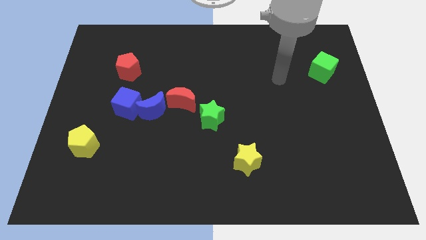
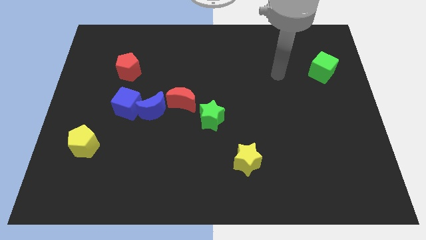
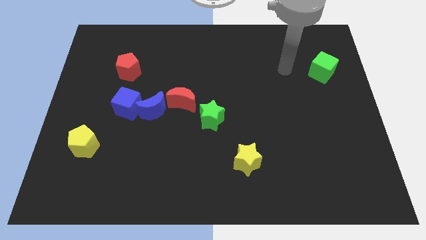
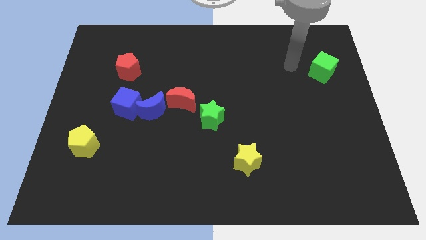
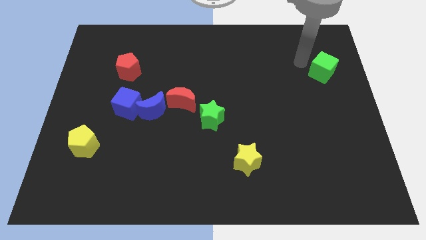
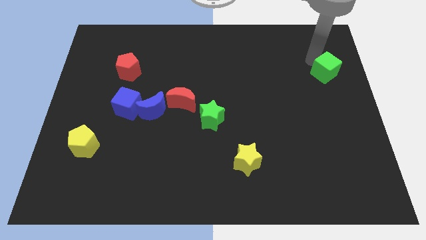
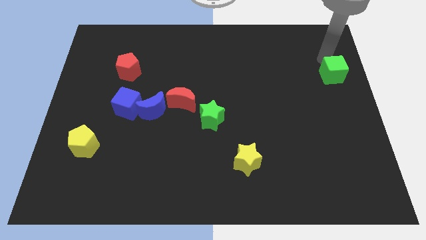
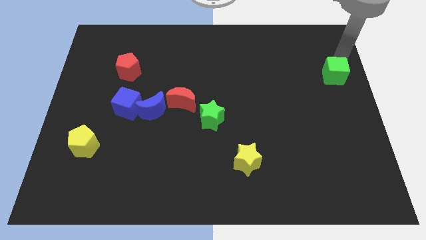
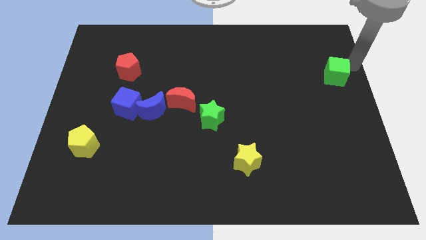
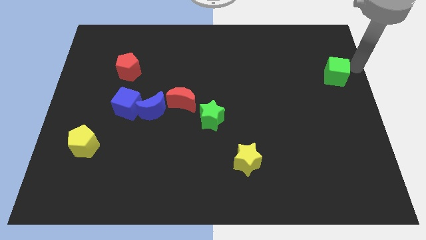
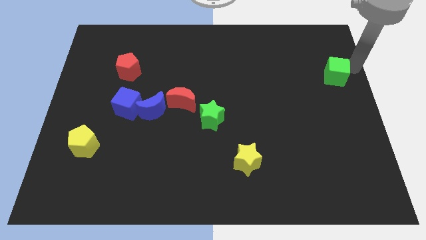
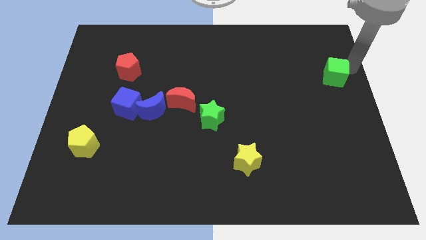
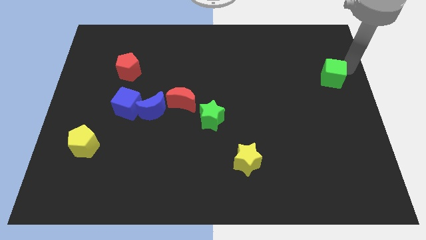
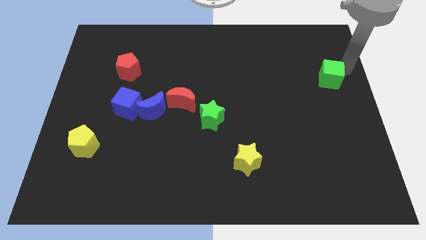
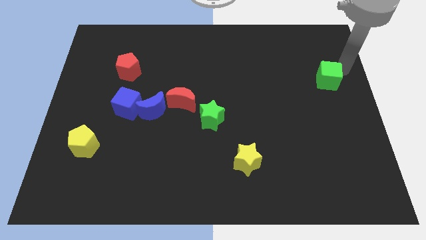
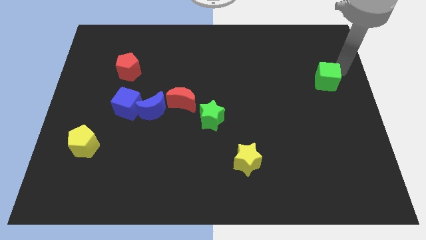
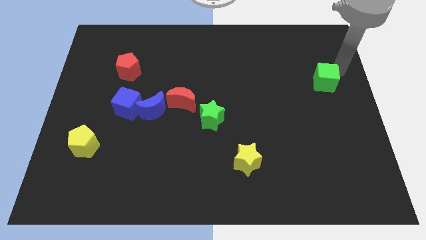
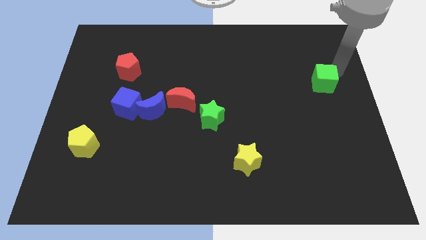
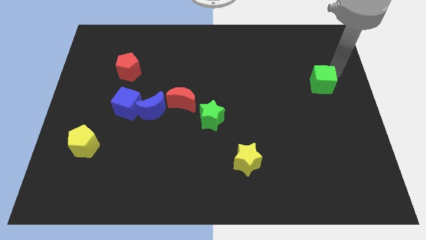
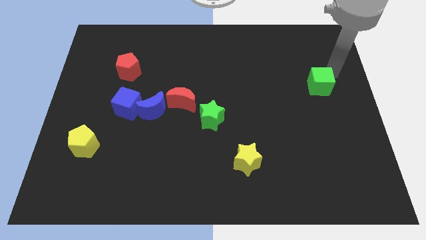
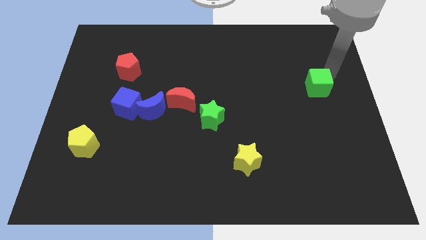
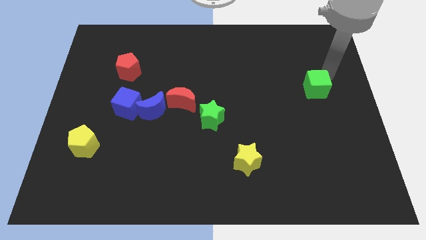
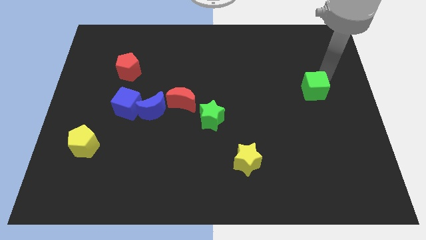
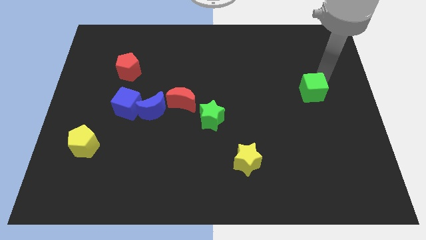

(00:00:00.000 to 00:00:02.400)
slightly slide the green cube downwards and then to the left

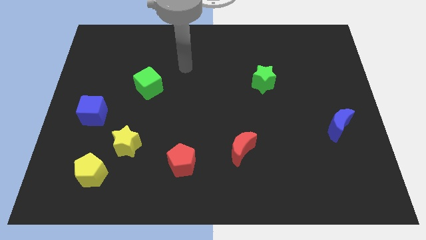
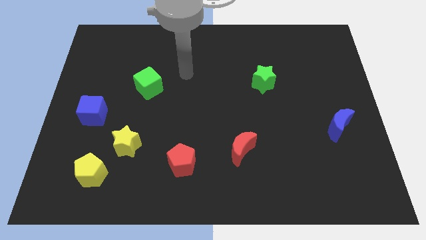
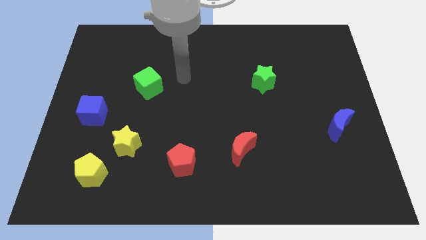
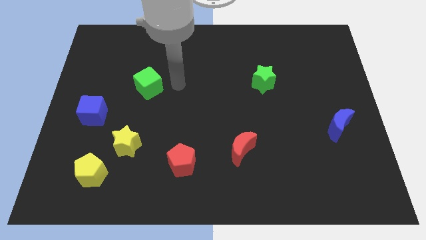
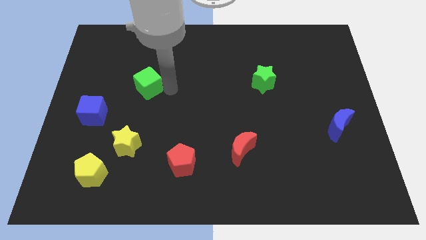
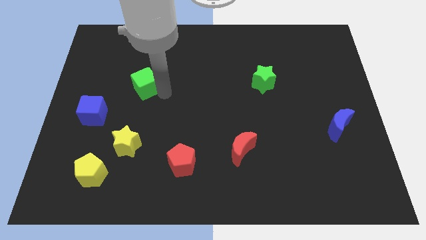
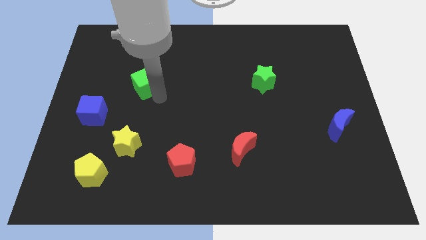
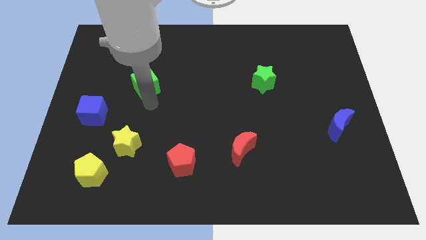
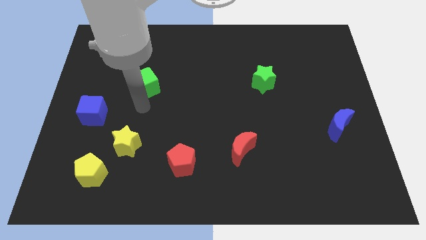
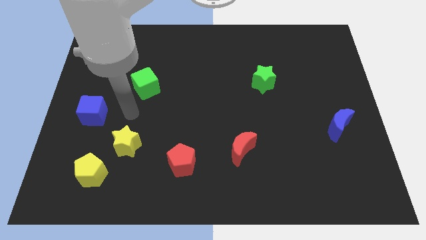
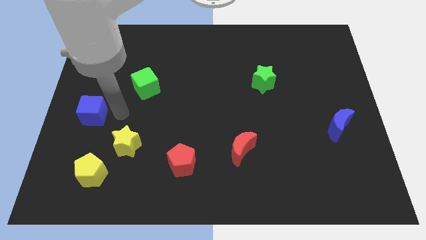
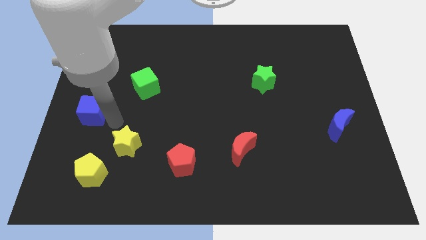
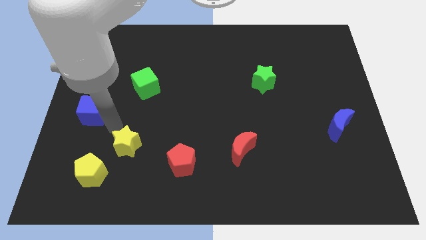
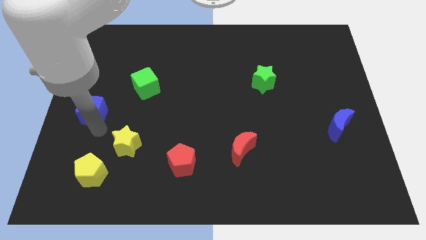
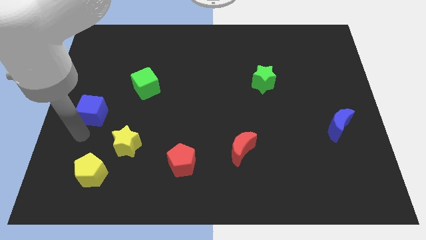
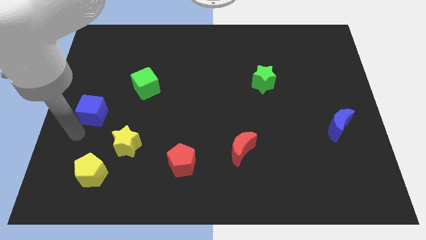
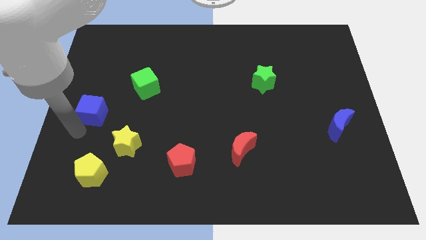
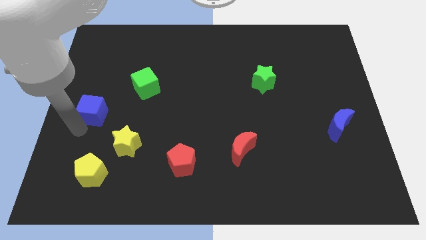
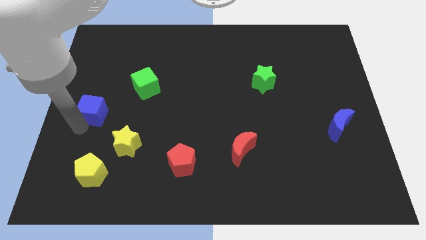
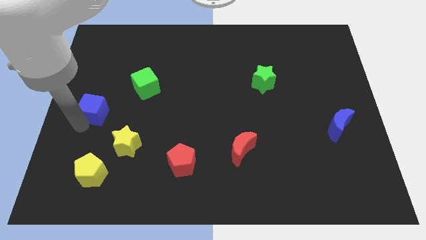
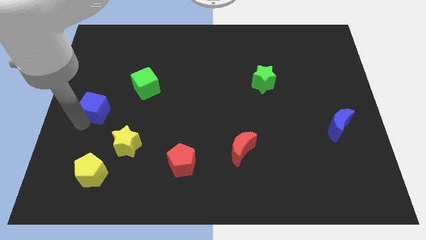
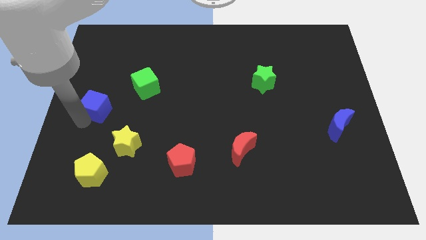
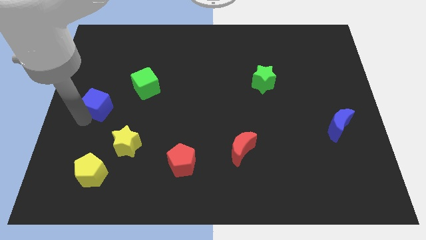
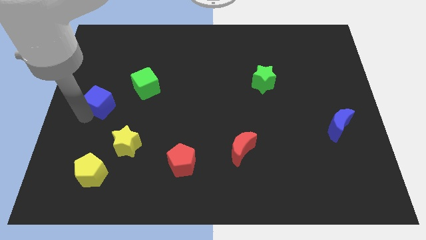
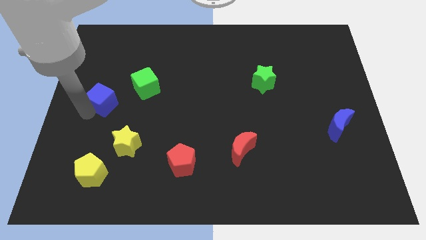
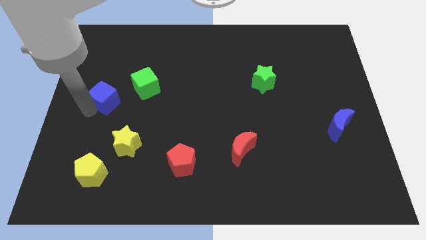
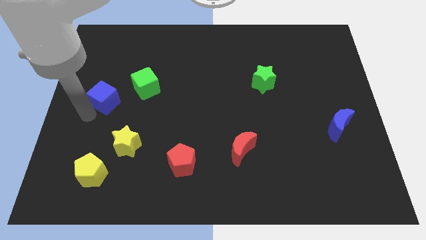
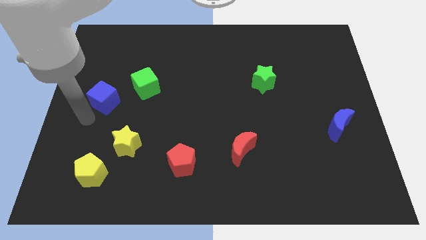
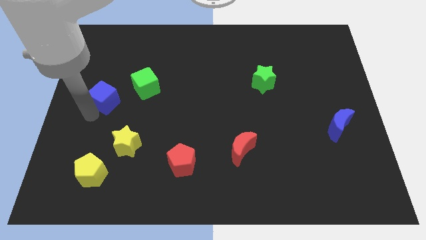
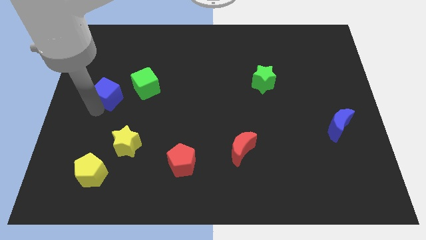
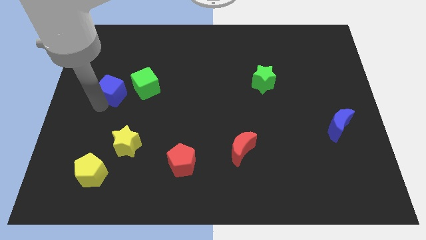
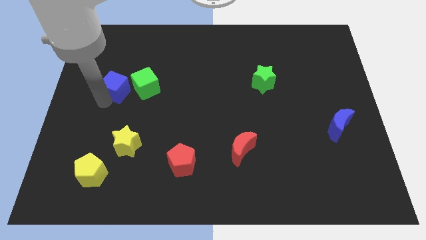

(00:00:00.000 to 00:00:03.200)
push the blue cube upwards and then right slightly

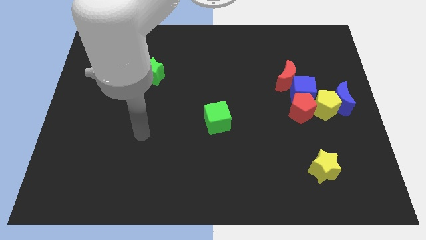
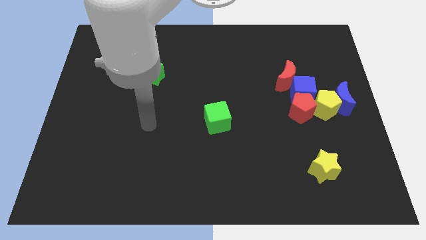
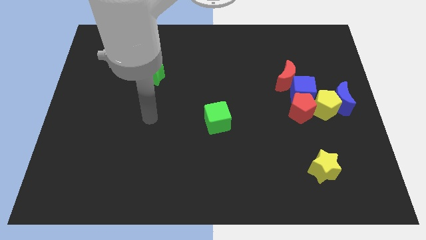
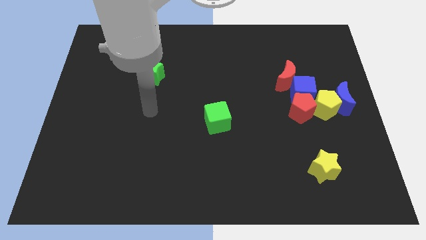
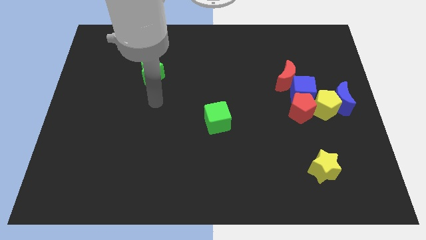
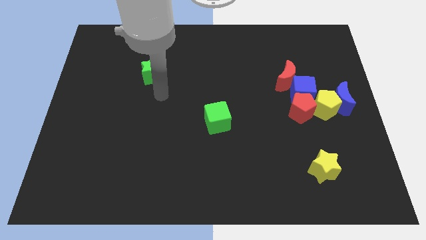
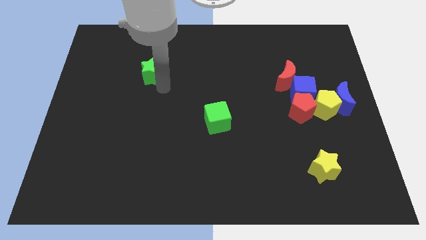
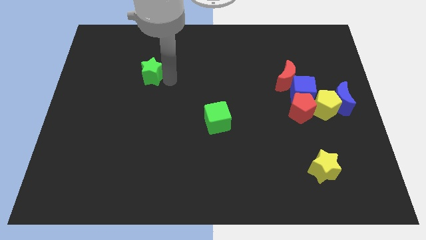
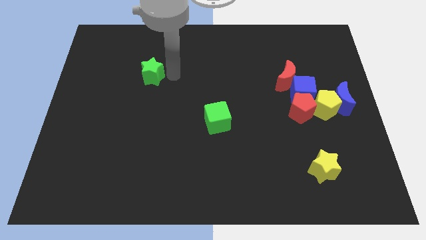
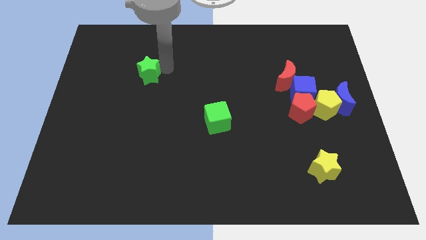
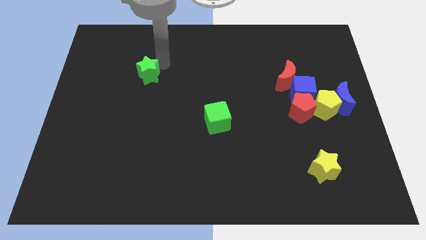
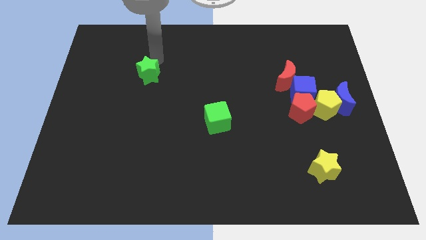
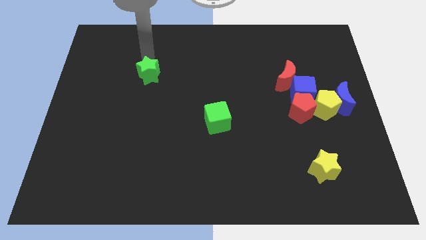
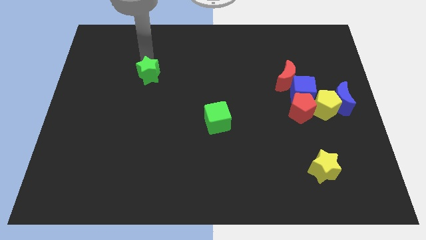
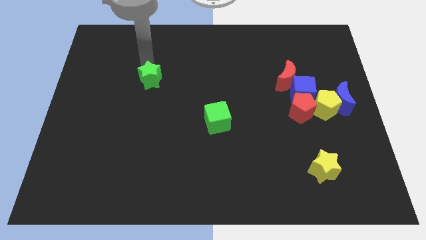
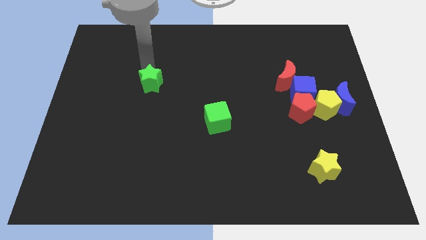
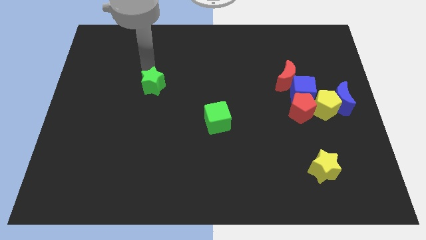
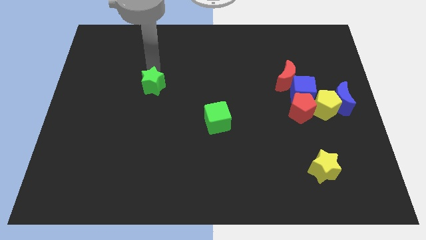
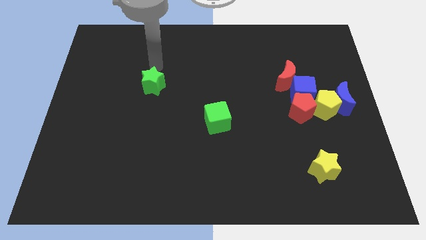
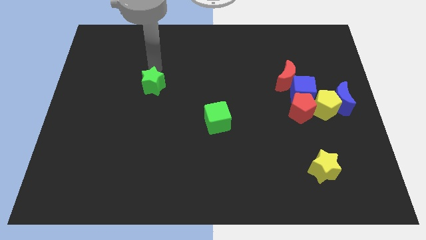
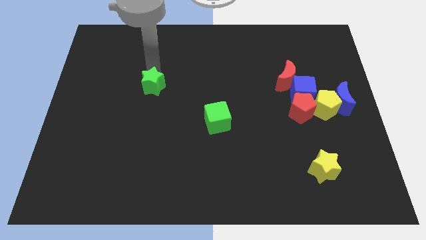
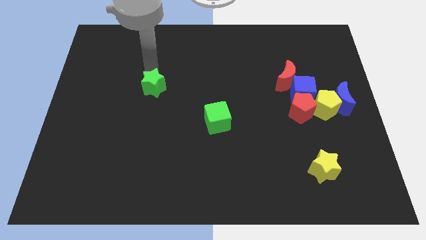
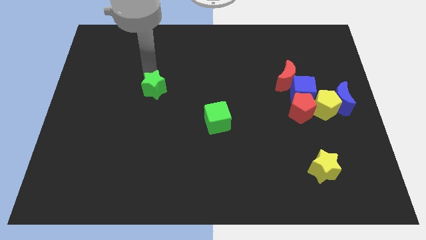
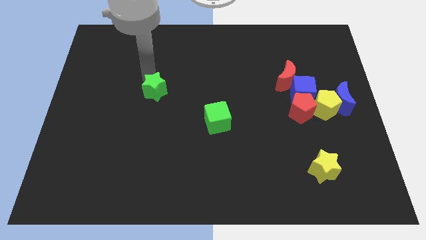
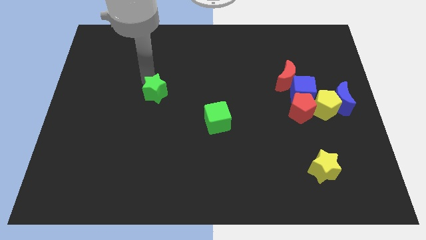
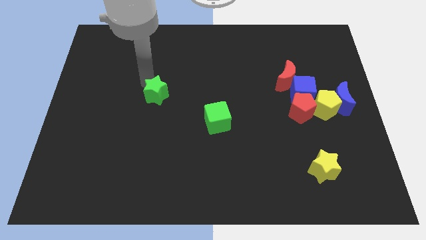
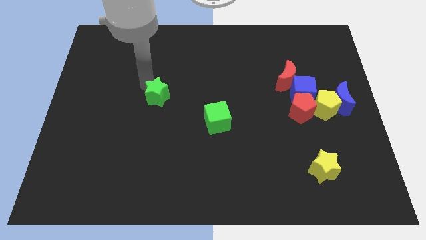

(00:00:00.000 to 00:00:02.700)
slightly move the green star downwards
